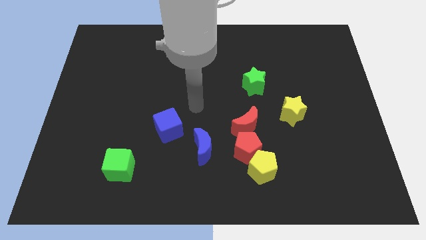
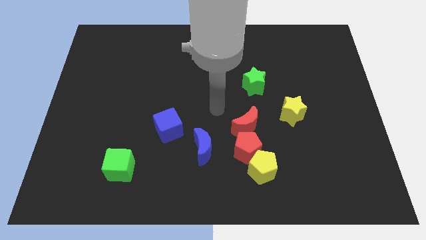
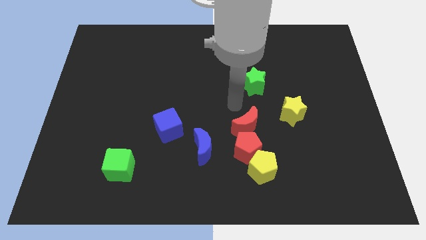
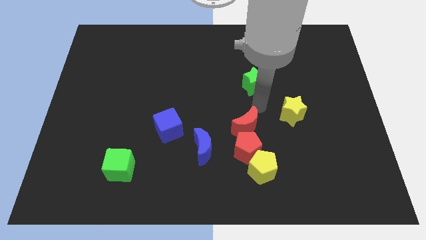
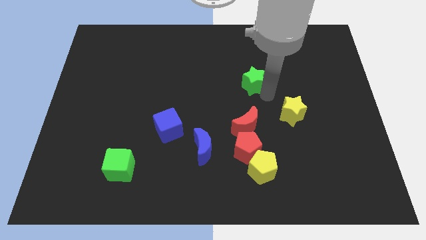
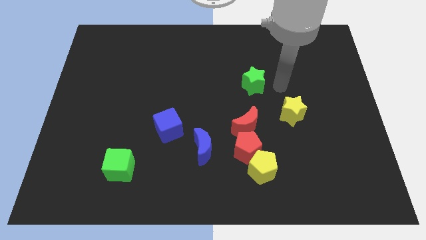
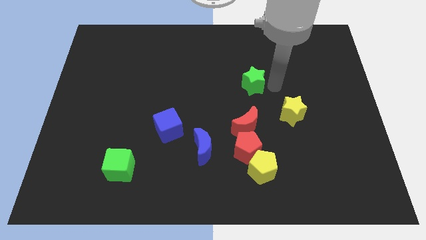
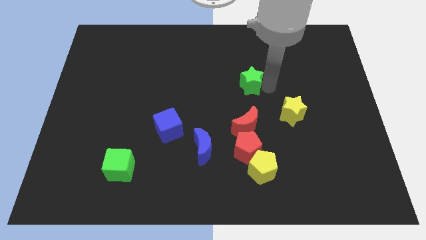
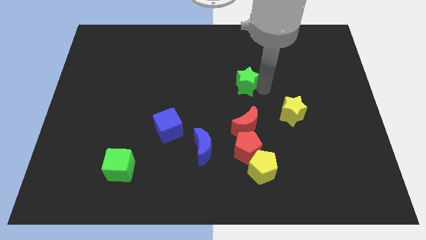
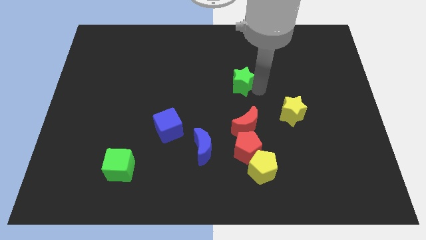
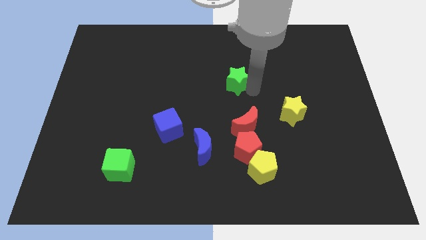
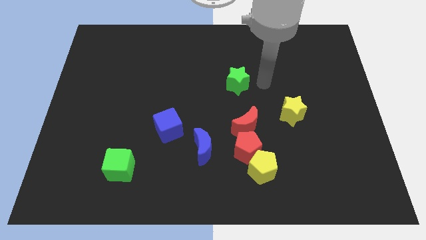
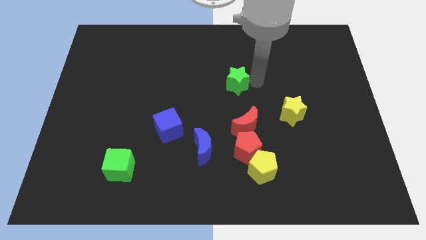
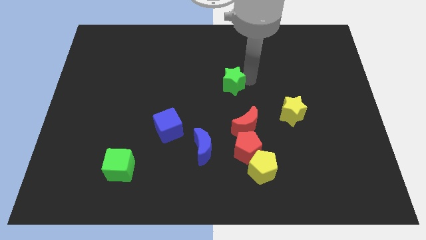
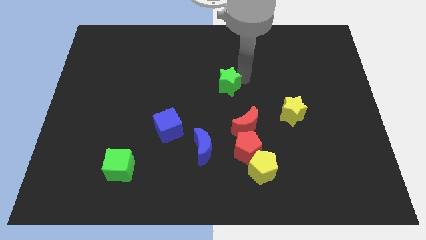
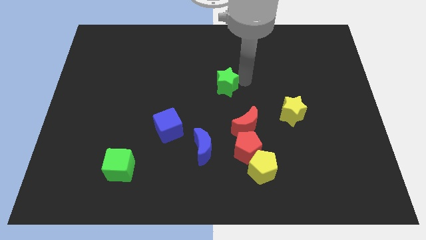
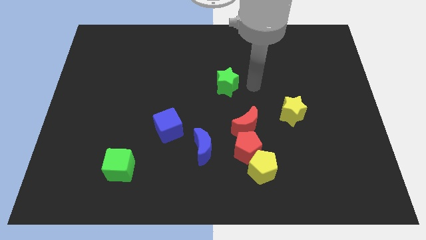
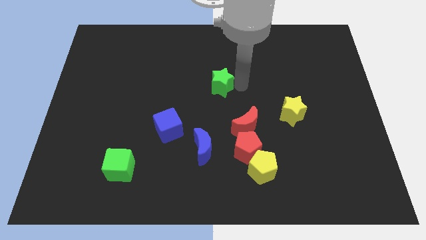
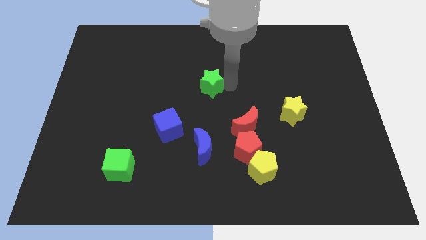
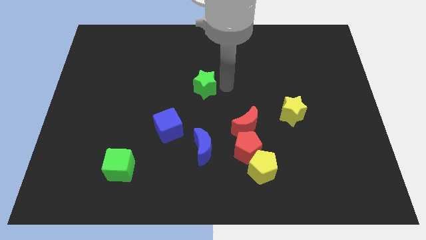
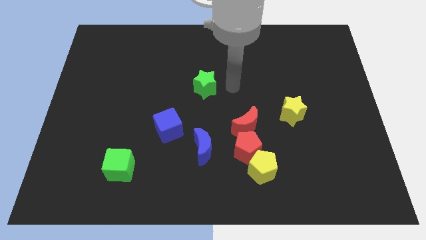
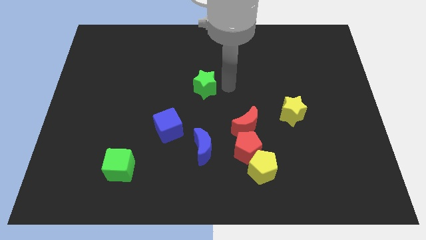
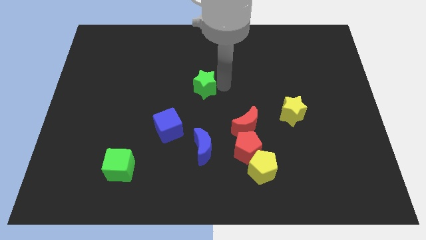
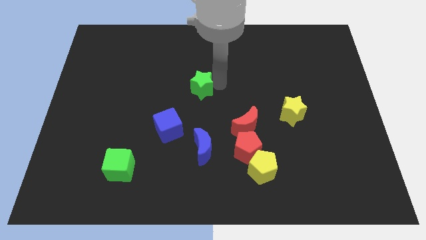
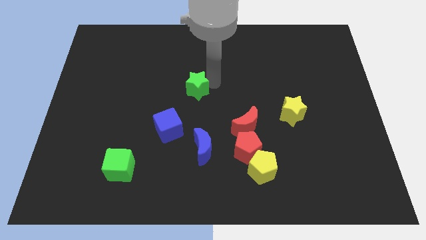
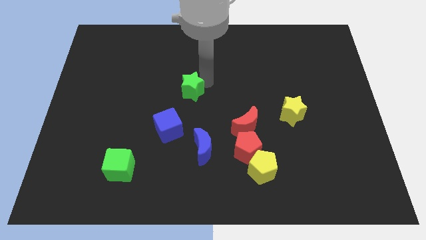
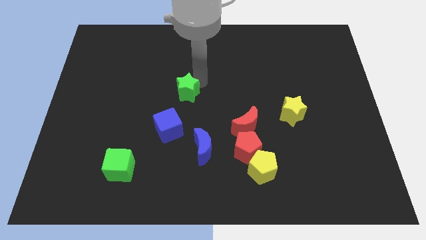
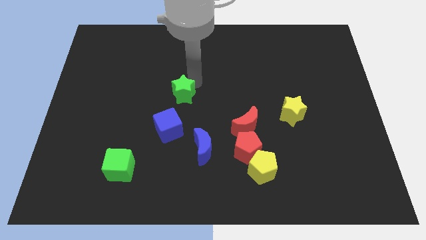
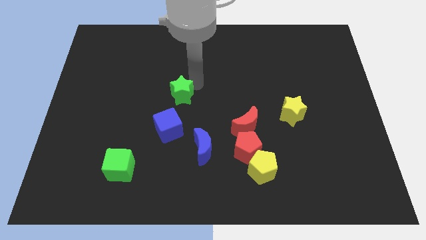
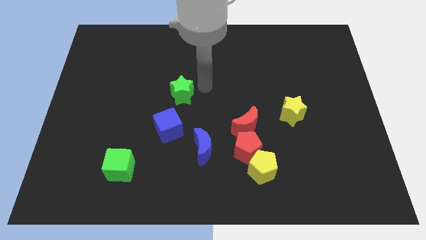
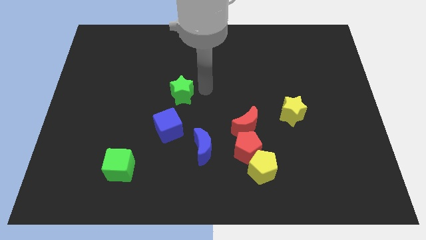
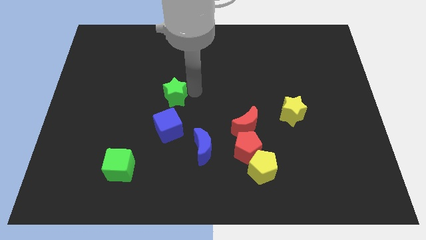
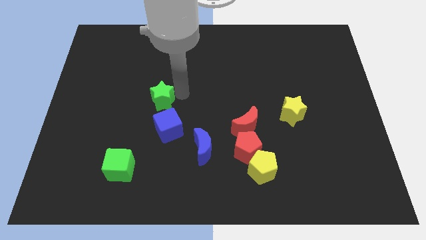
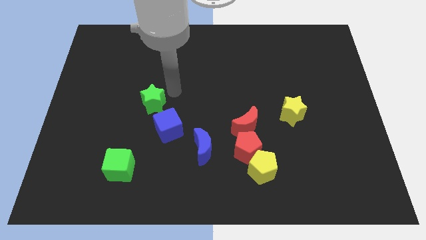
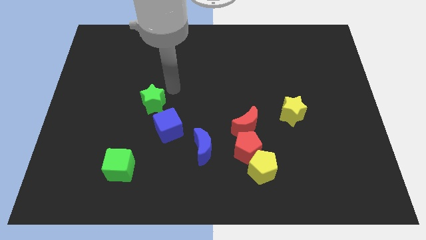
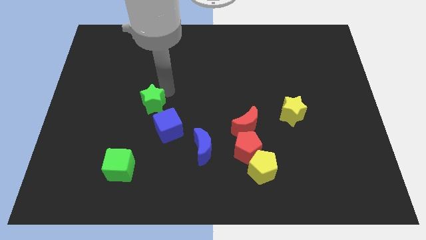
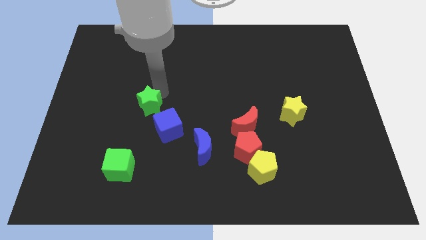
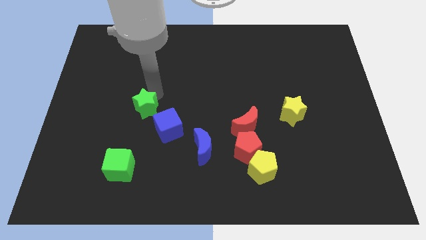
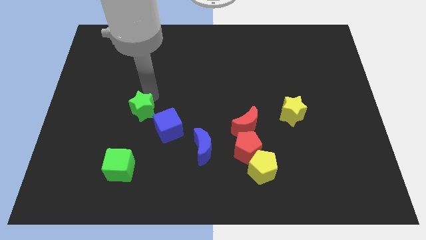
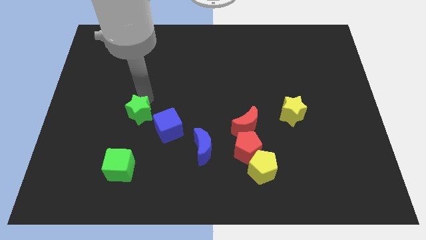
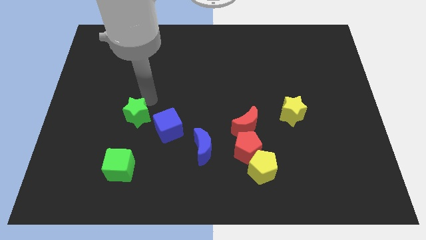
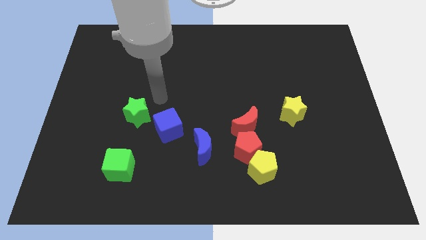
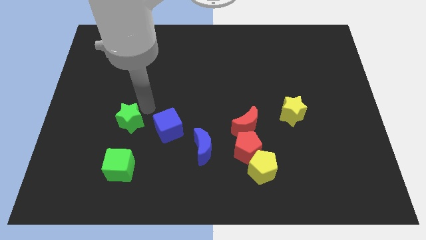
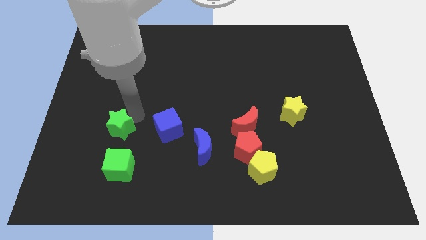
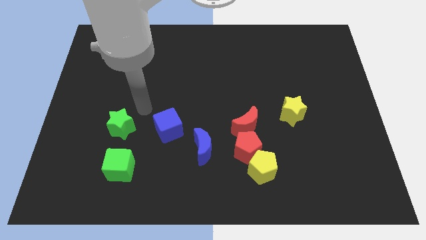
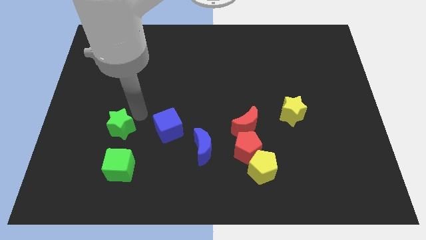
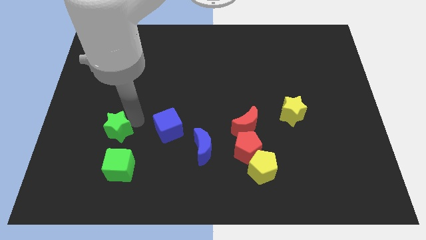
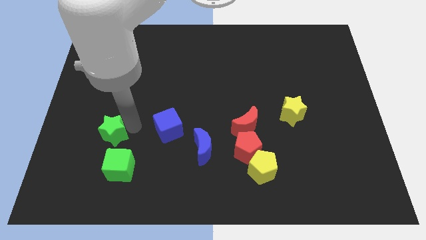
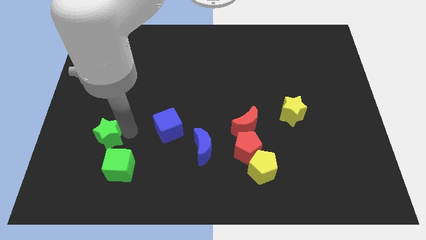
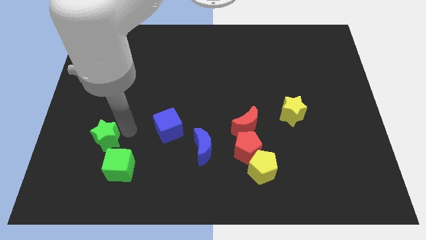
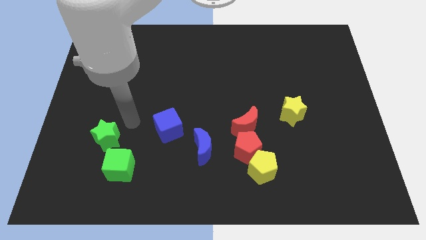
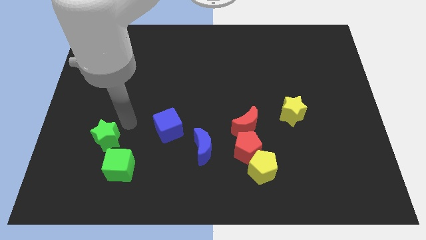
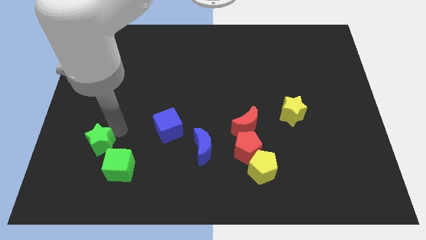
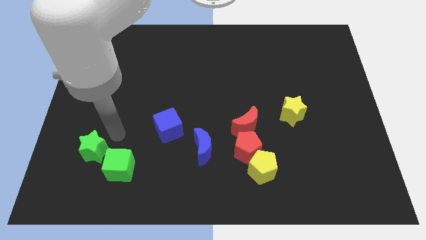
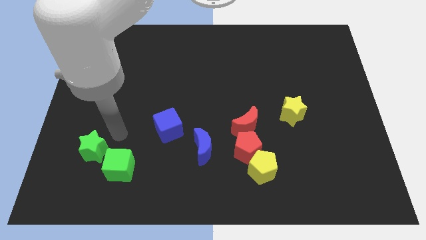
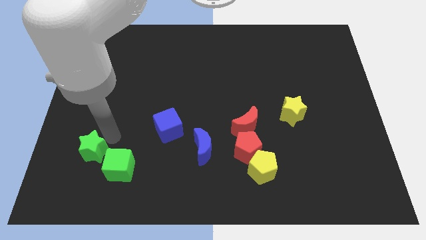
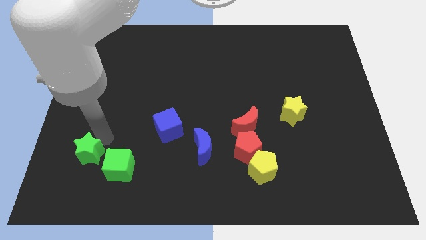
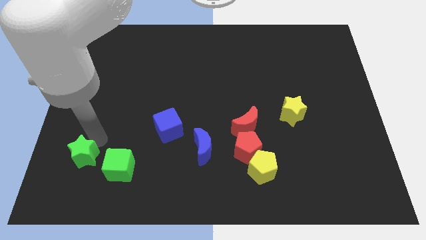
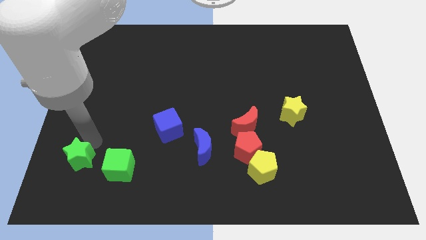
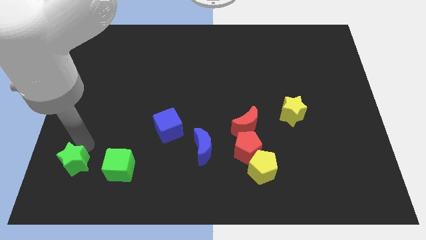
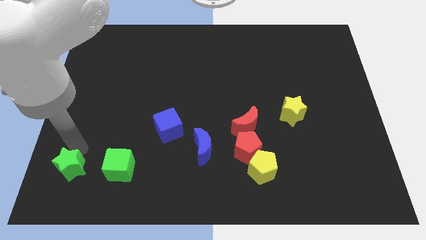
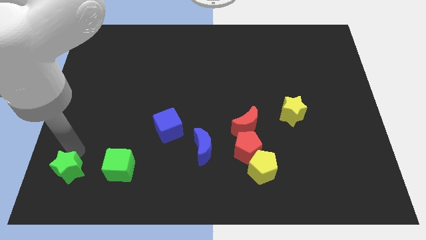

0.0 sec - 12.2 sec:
push the green star to the lower left corner
